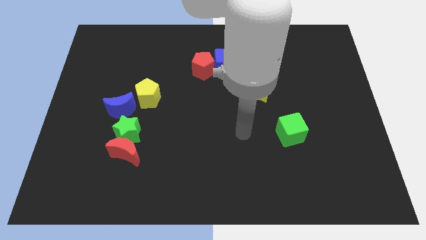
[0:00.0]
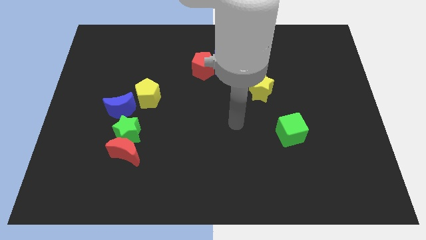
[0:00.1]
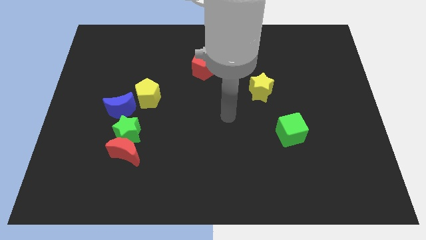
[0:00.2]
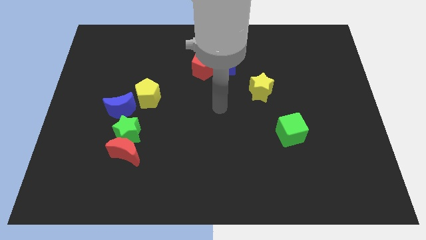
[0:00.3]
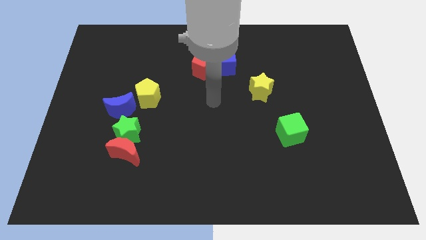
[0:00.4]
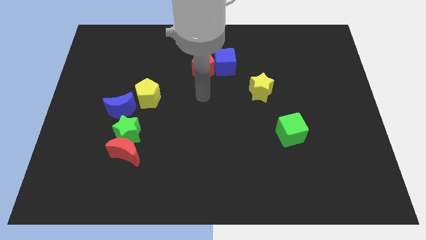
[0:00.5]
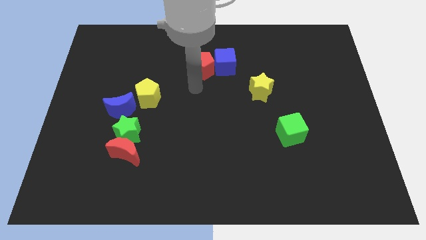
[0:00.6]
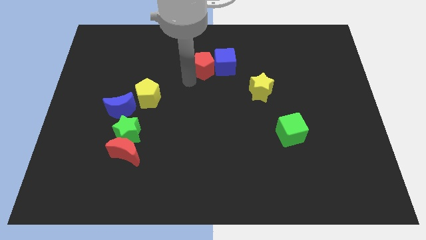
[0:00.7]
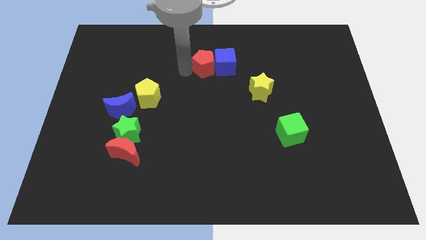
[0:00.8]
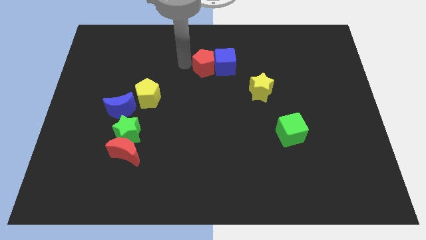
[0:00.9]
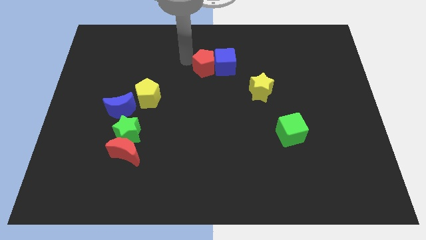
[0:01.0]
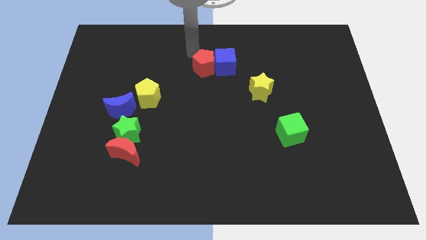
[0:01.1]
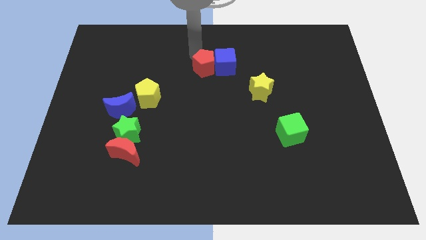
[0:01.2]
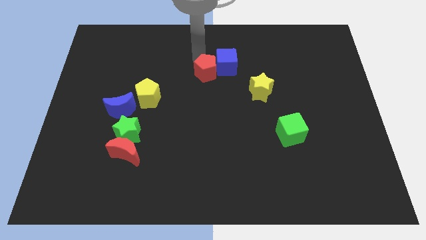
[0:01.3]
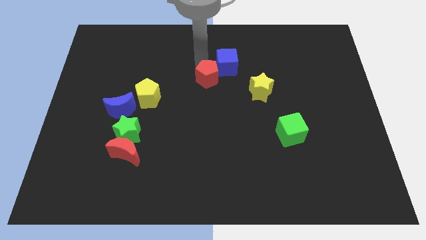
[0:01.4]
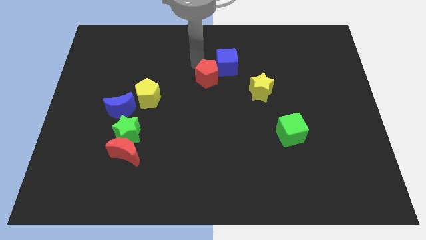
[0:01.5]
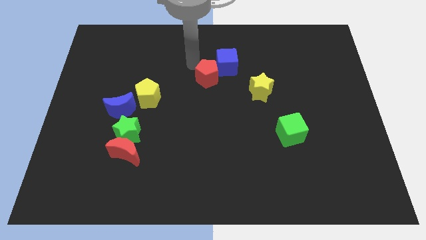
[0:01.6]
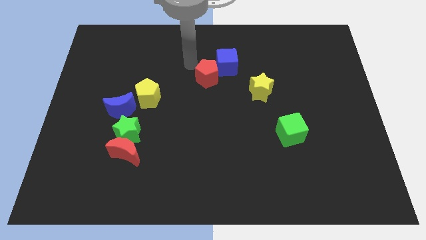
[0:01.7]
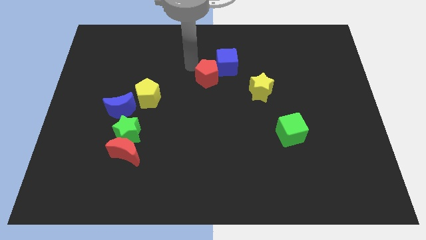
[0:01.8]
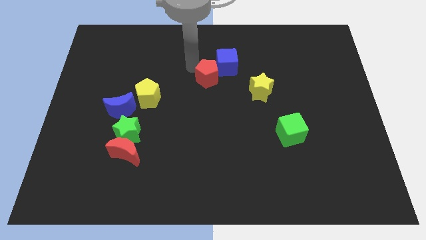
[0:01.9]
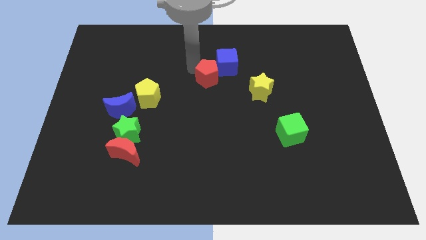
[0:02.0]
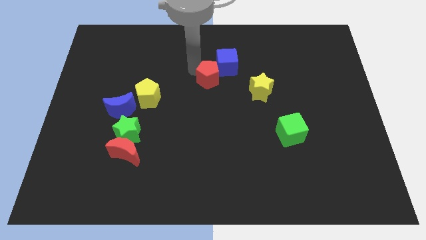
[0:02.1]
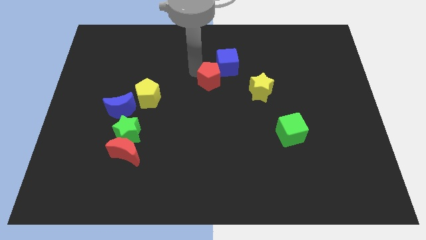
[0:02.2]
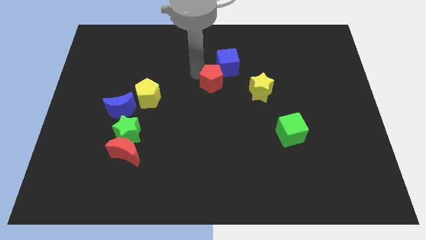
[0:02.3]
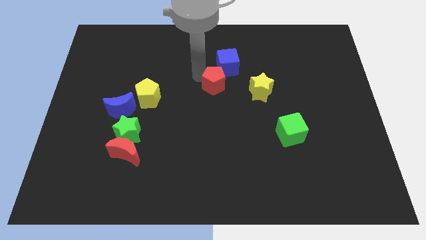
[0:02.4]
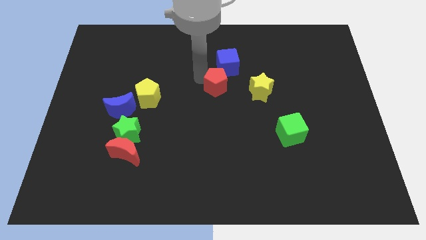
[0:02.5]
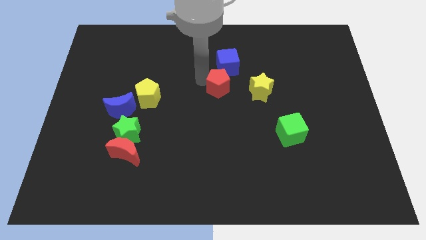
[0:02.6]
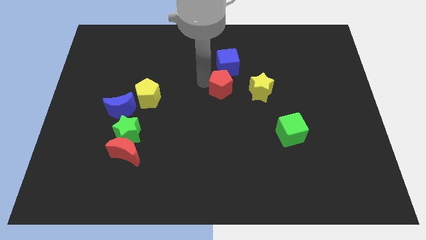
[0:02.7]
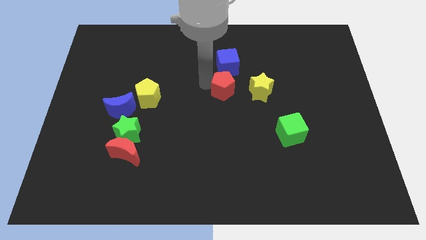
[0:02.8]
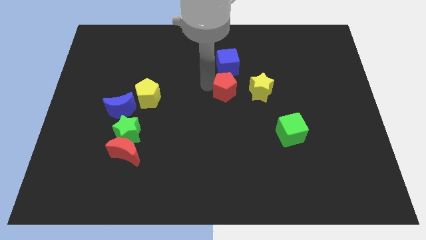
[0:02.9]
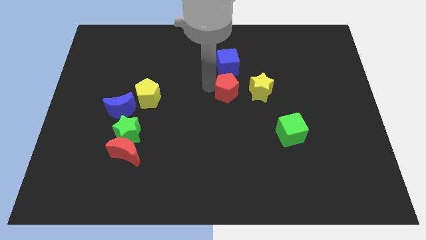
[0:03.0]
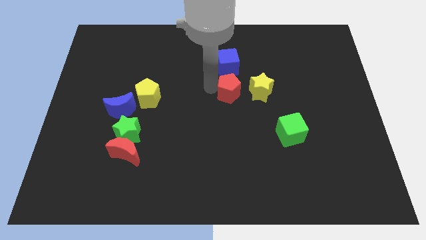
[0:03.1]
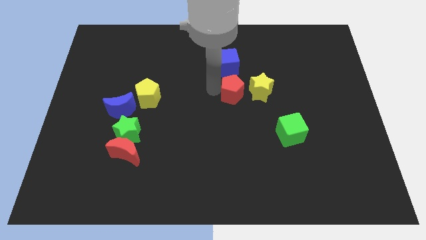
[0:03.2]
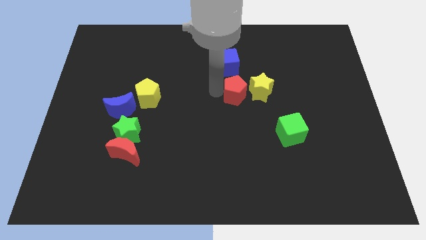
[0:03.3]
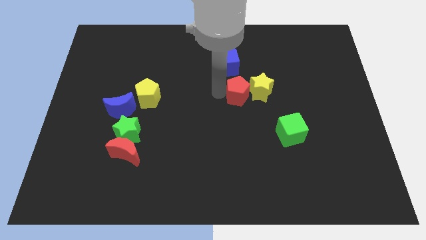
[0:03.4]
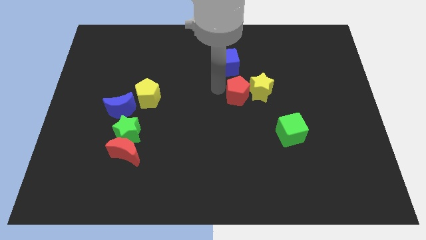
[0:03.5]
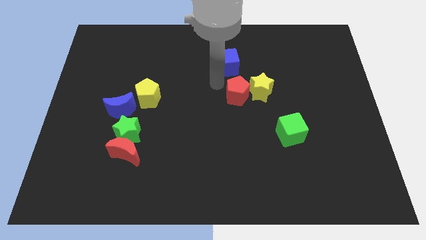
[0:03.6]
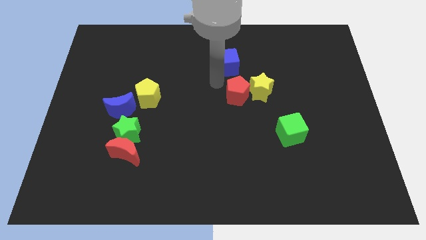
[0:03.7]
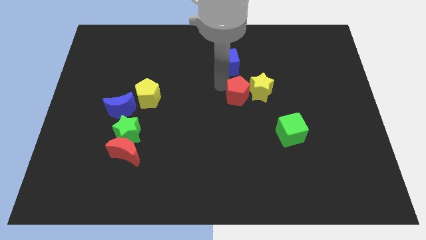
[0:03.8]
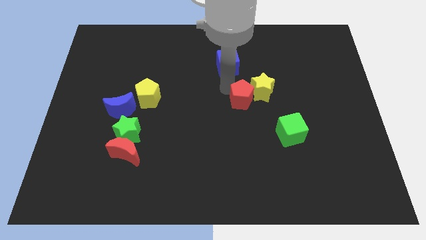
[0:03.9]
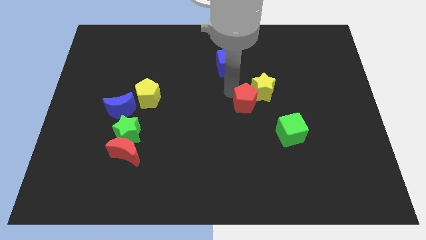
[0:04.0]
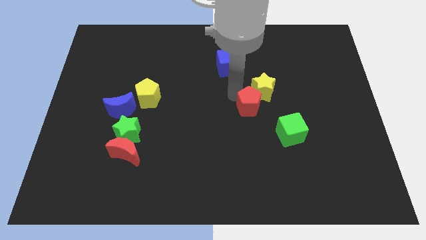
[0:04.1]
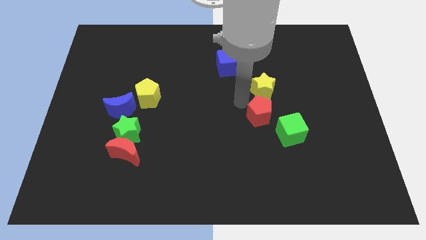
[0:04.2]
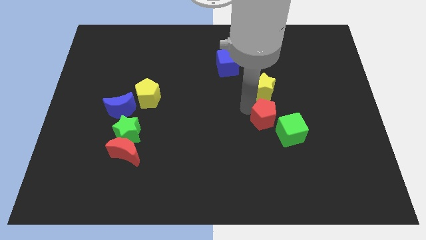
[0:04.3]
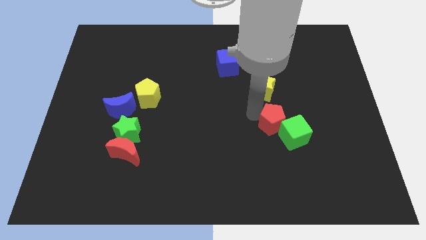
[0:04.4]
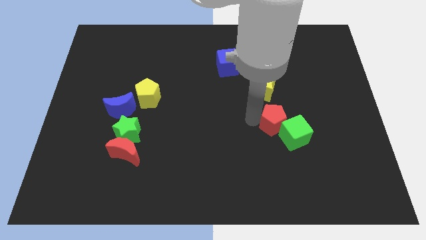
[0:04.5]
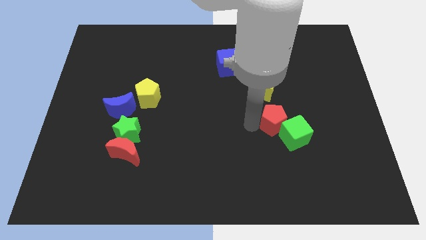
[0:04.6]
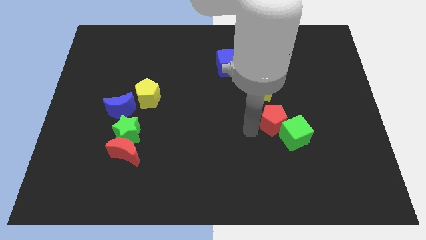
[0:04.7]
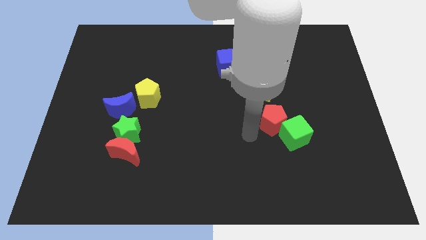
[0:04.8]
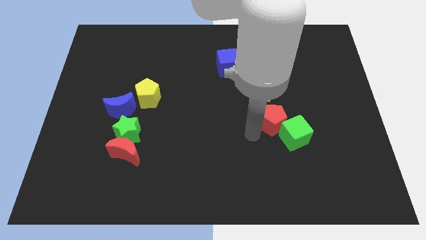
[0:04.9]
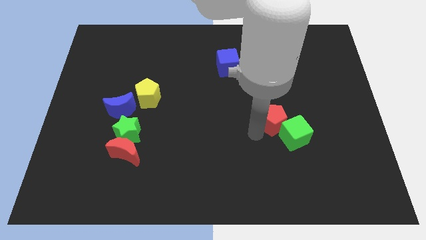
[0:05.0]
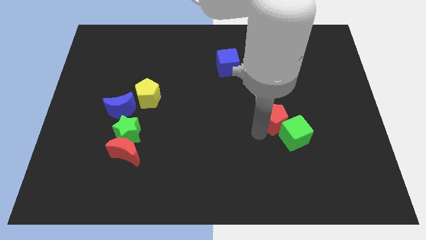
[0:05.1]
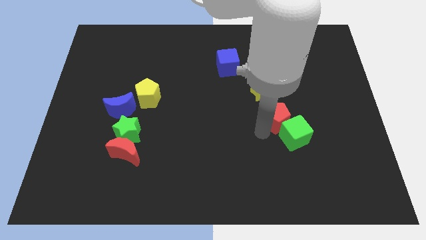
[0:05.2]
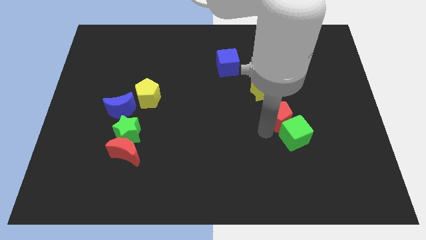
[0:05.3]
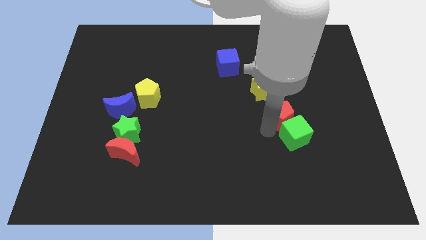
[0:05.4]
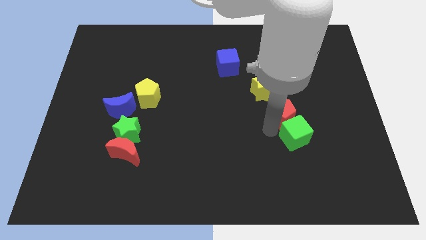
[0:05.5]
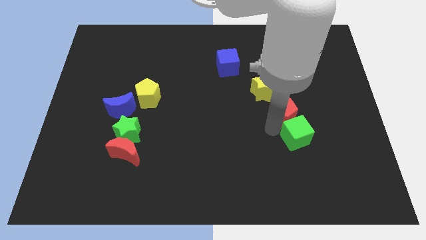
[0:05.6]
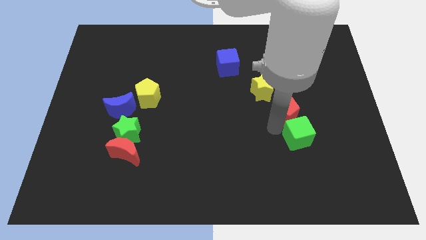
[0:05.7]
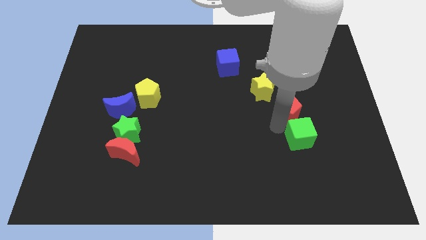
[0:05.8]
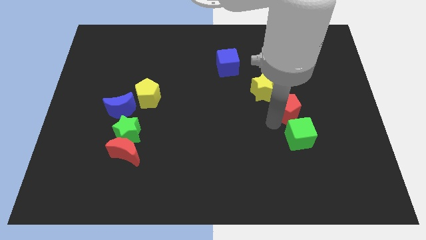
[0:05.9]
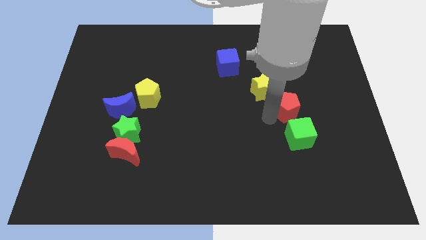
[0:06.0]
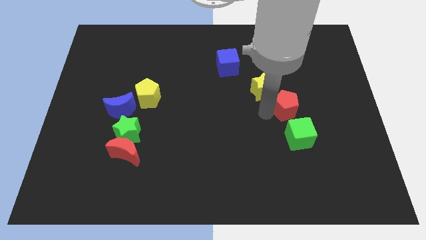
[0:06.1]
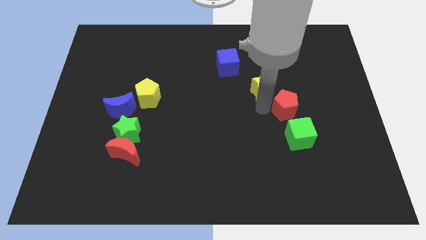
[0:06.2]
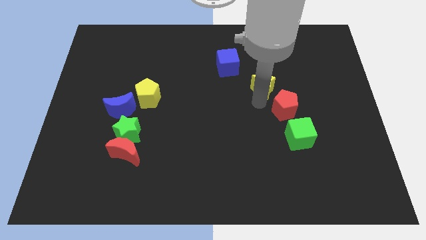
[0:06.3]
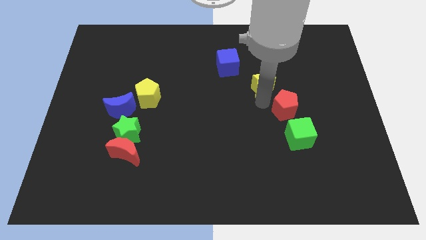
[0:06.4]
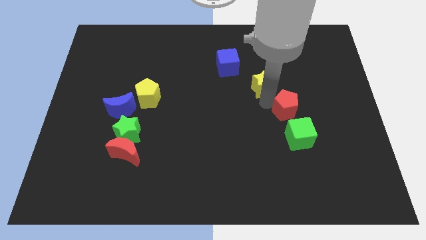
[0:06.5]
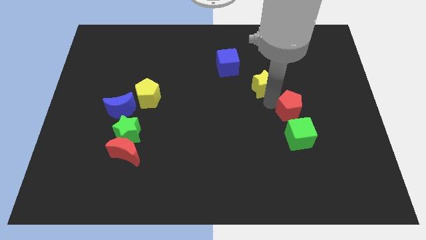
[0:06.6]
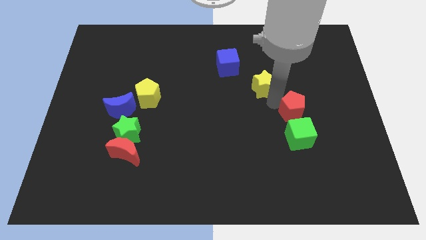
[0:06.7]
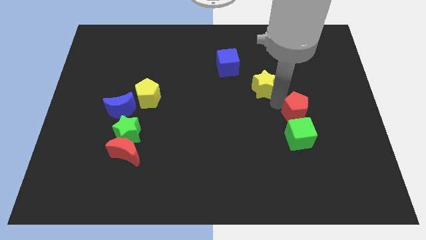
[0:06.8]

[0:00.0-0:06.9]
push the red pentagon diagonally up and to the right of the green cube

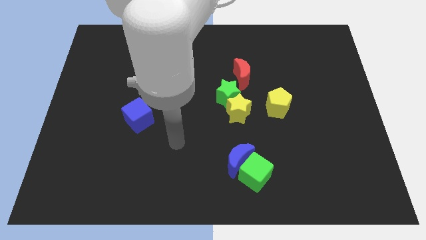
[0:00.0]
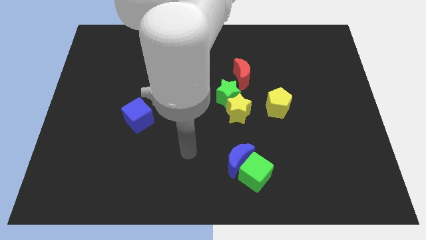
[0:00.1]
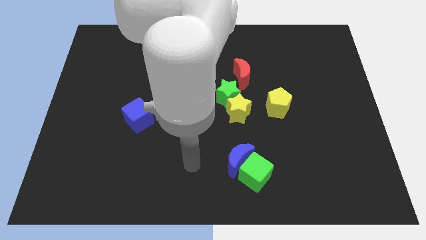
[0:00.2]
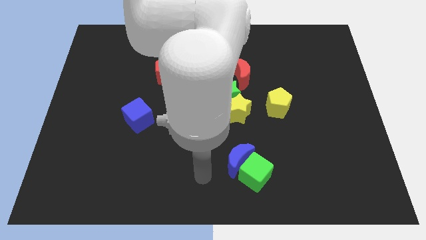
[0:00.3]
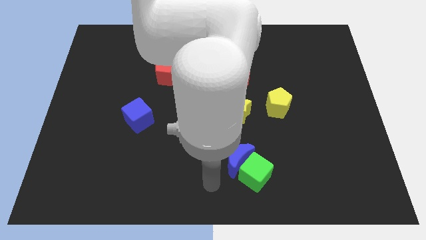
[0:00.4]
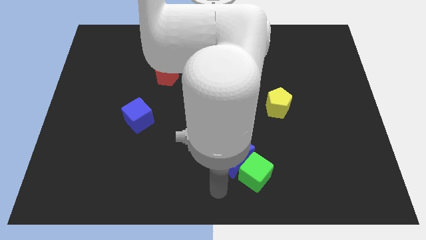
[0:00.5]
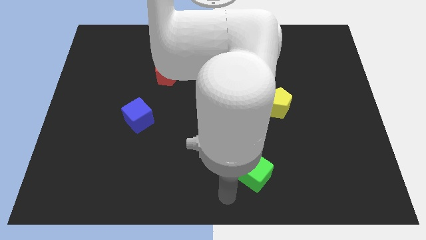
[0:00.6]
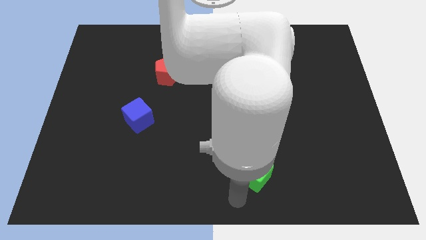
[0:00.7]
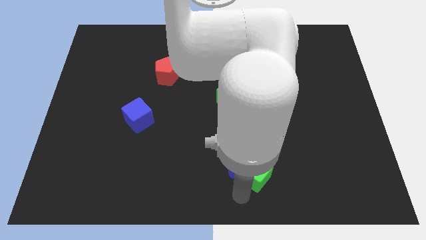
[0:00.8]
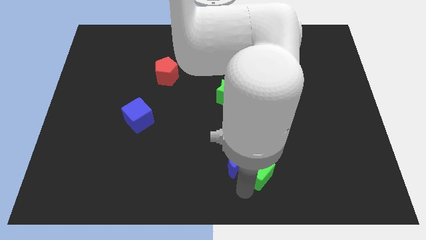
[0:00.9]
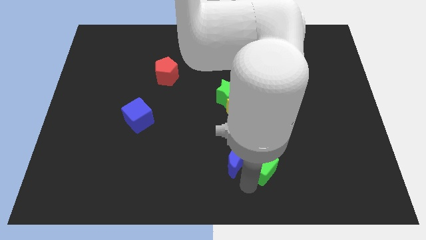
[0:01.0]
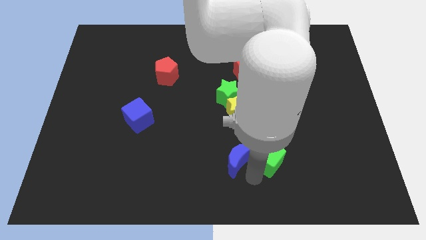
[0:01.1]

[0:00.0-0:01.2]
put the green cube to the bottom of the yellow pentagon

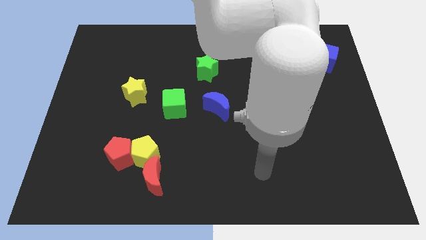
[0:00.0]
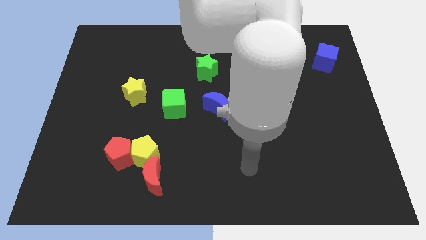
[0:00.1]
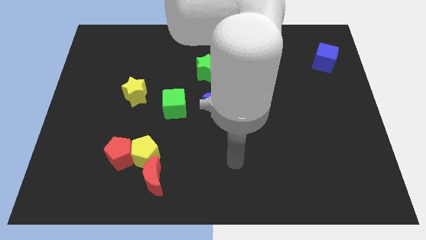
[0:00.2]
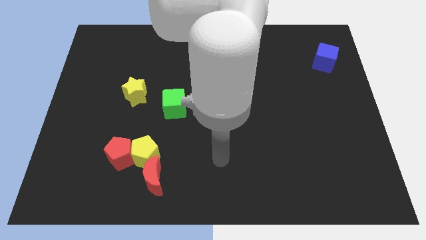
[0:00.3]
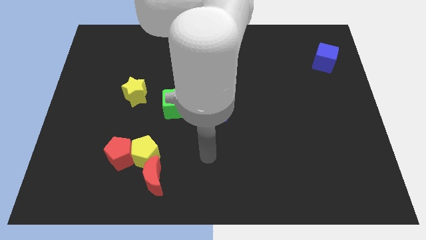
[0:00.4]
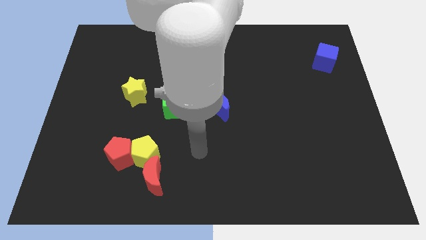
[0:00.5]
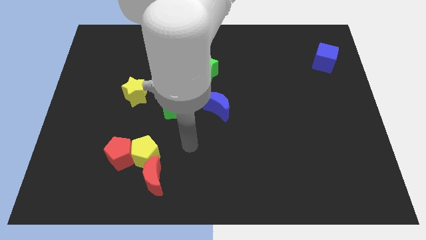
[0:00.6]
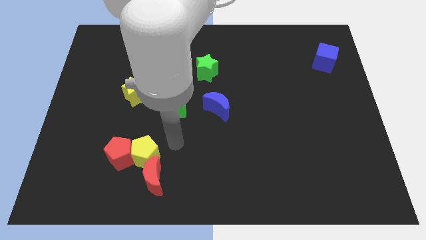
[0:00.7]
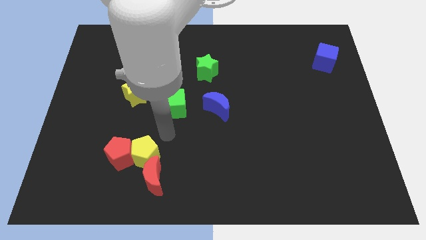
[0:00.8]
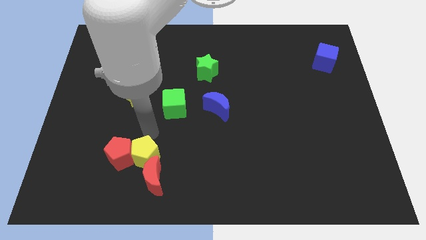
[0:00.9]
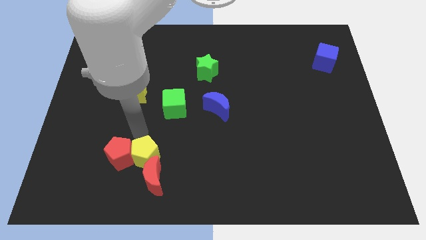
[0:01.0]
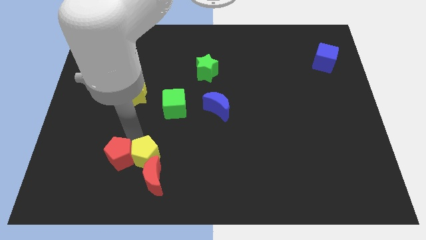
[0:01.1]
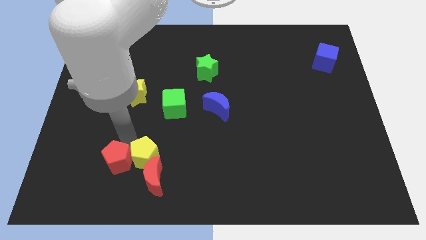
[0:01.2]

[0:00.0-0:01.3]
slide the red pentagon just left of the red moon
